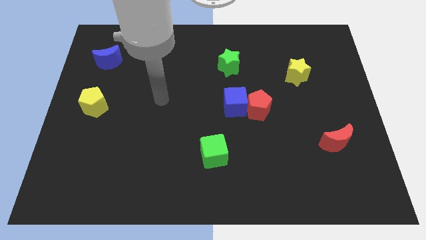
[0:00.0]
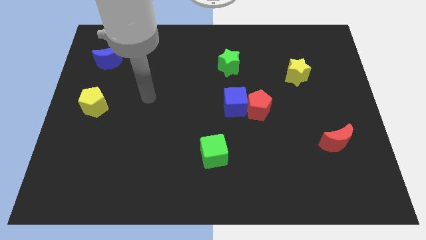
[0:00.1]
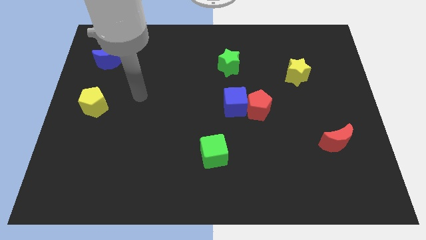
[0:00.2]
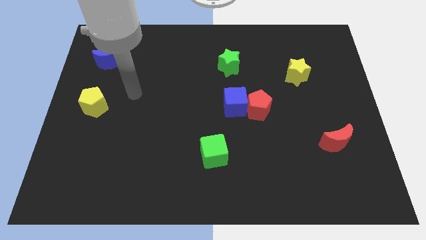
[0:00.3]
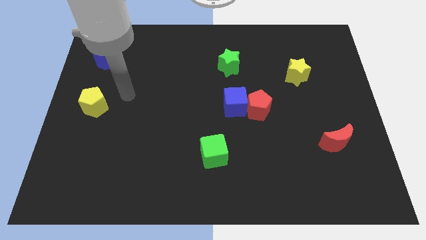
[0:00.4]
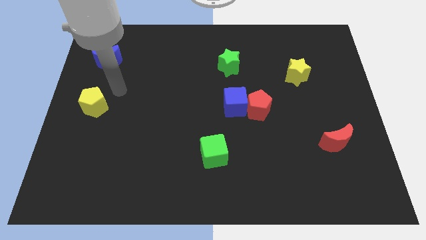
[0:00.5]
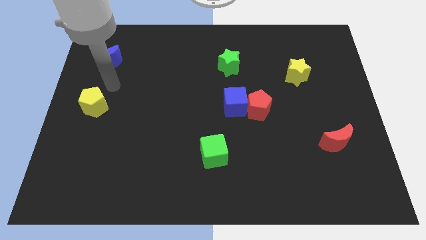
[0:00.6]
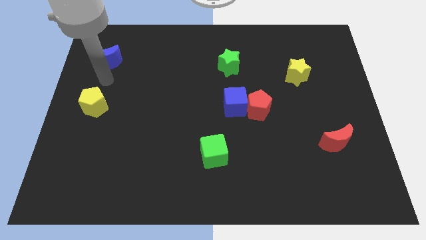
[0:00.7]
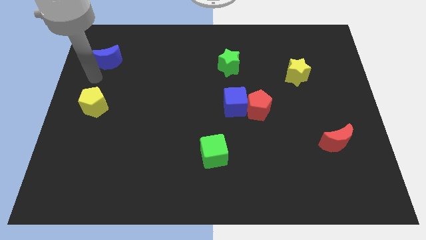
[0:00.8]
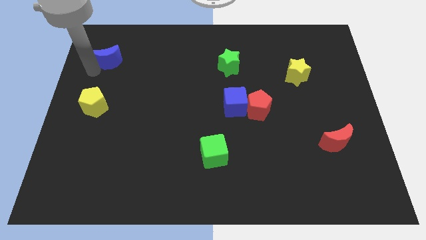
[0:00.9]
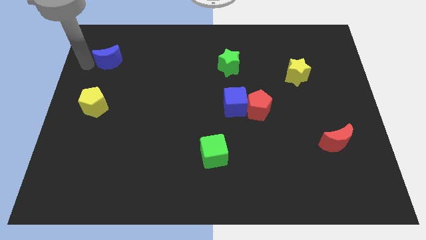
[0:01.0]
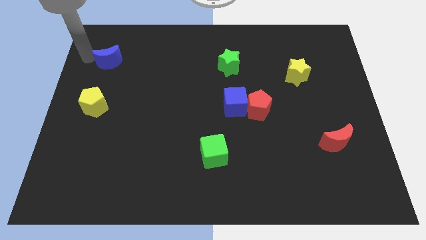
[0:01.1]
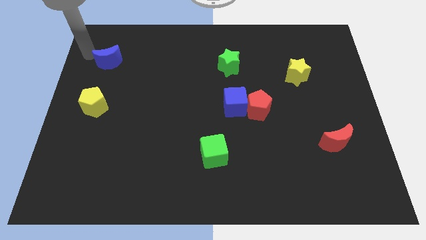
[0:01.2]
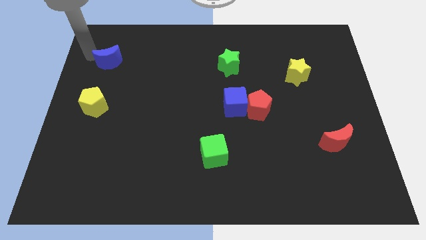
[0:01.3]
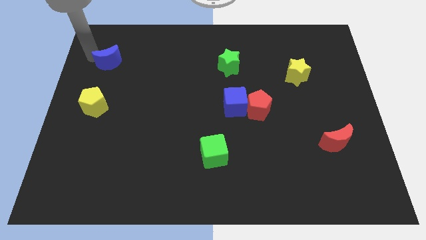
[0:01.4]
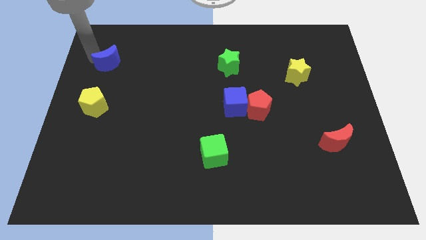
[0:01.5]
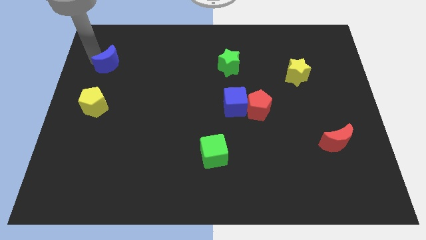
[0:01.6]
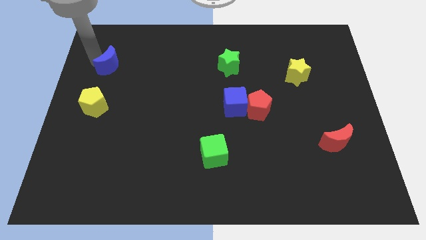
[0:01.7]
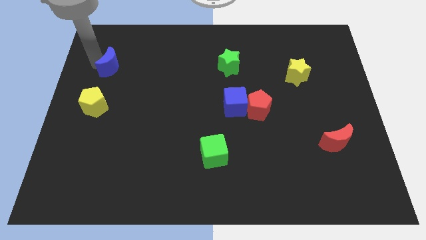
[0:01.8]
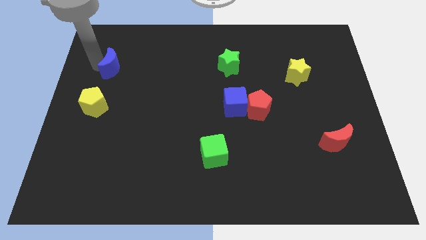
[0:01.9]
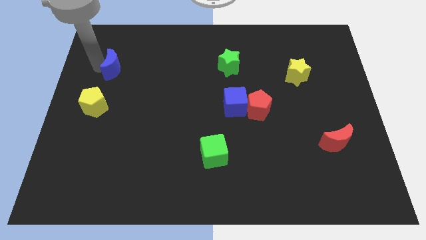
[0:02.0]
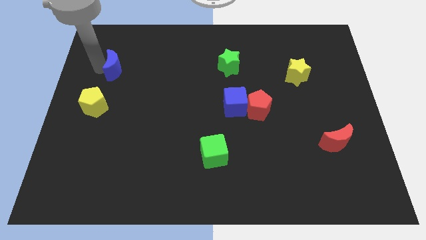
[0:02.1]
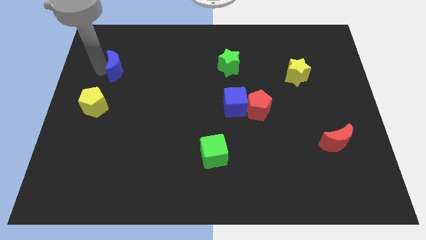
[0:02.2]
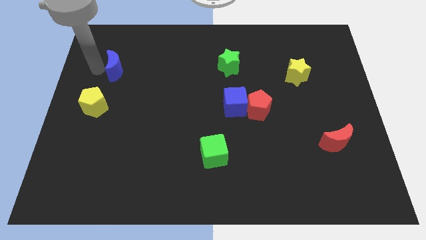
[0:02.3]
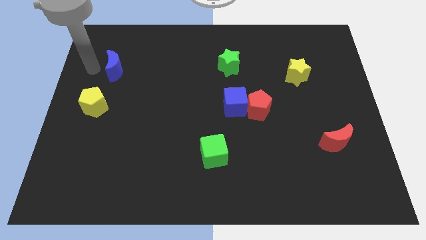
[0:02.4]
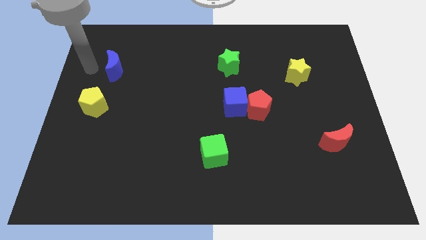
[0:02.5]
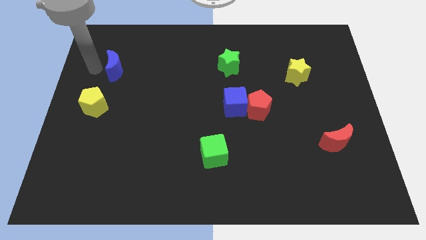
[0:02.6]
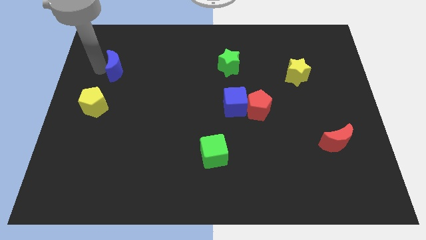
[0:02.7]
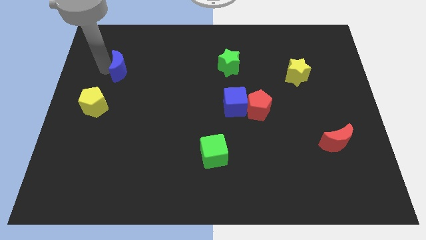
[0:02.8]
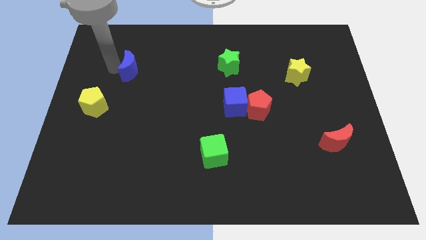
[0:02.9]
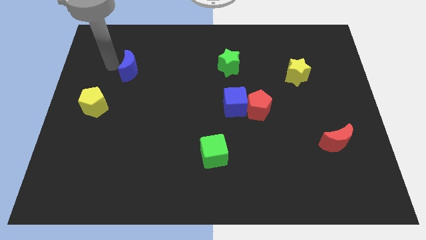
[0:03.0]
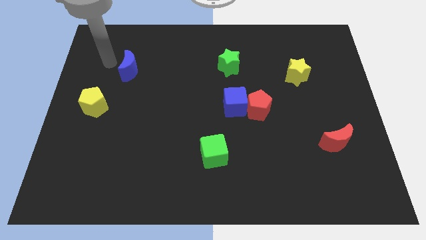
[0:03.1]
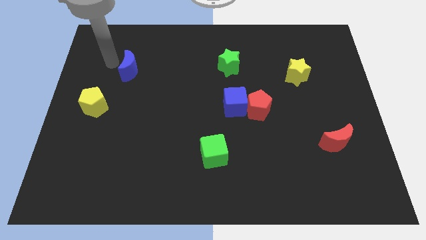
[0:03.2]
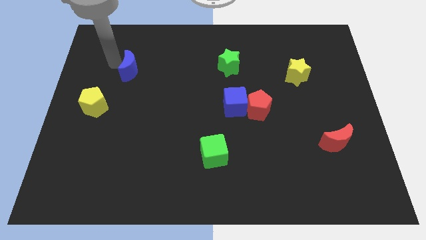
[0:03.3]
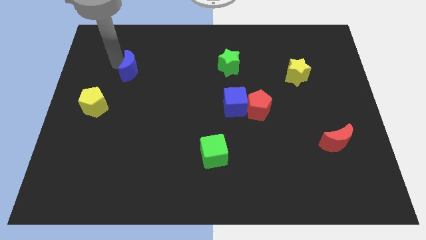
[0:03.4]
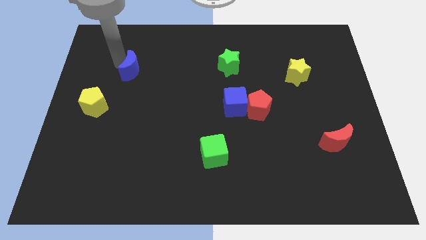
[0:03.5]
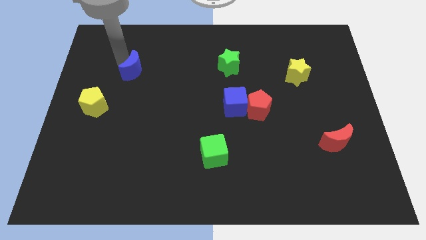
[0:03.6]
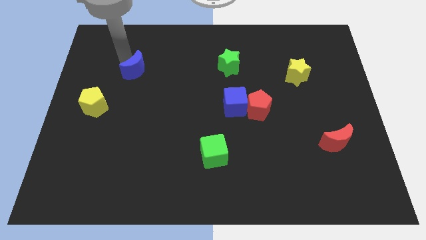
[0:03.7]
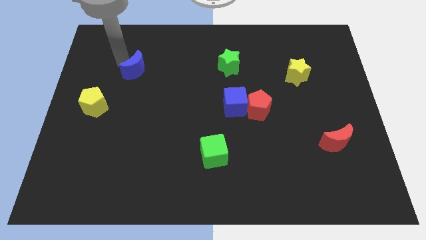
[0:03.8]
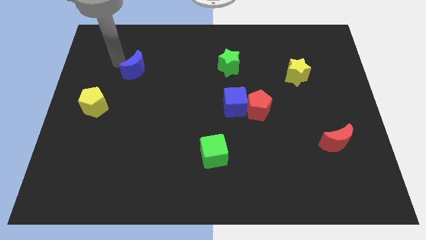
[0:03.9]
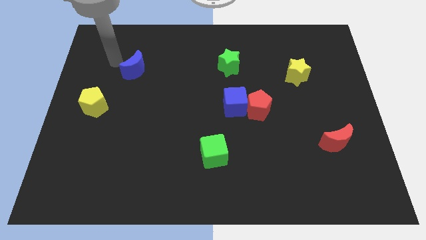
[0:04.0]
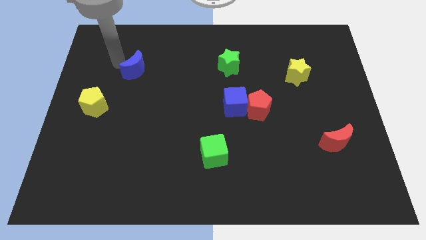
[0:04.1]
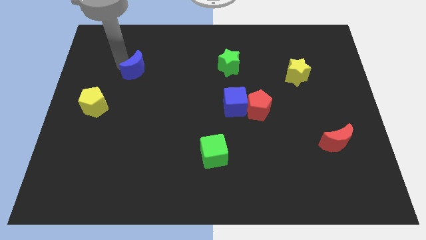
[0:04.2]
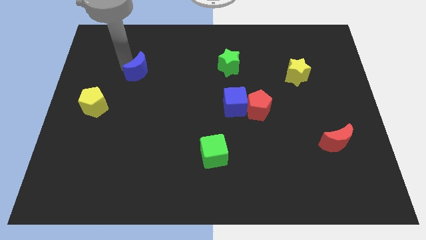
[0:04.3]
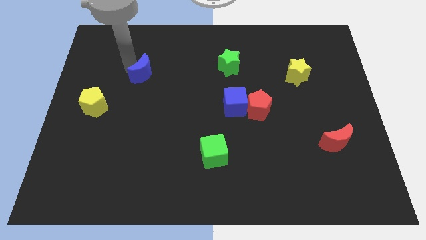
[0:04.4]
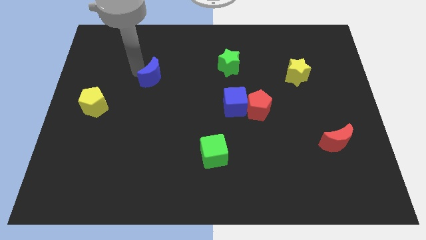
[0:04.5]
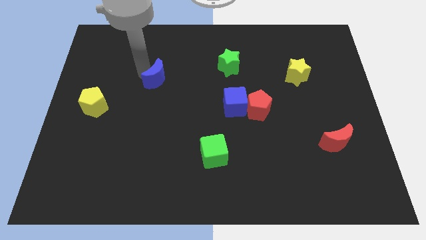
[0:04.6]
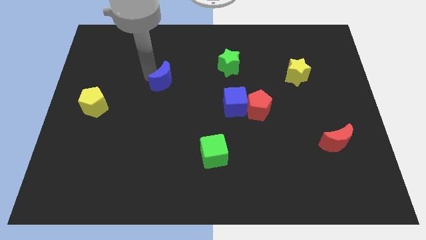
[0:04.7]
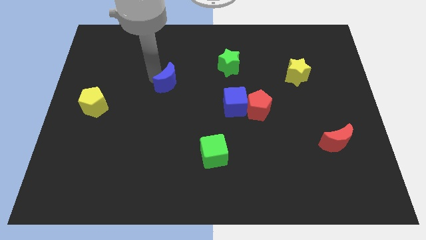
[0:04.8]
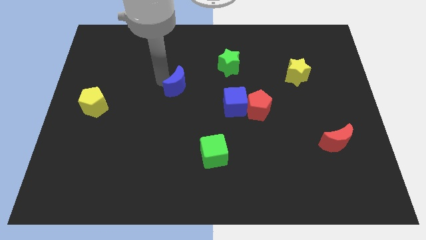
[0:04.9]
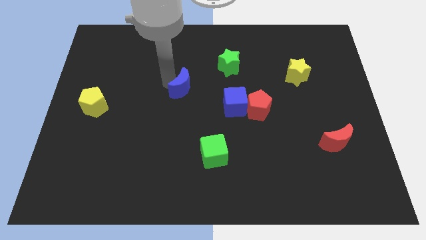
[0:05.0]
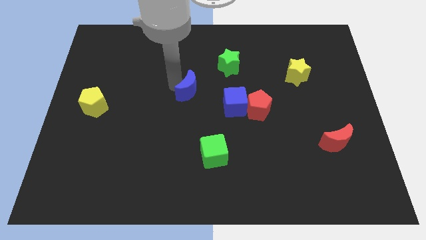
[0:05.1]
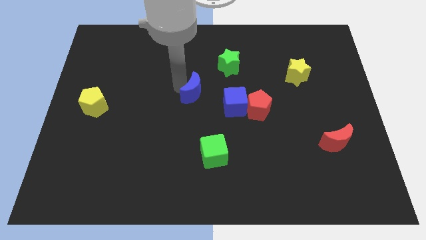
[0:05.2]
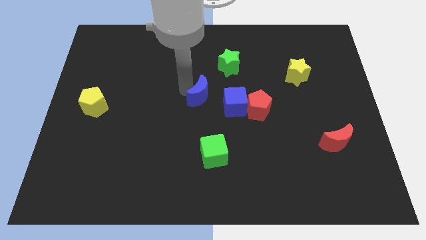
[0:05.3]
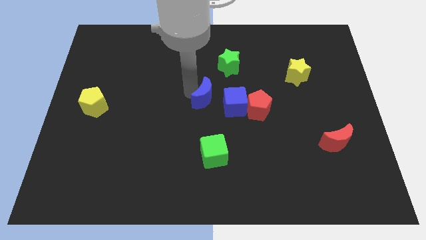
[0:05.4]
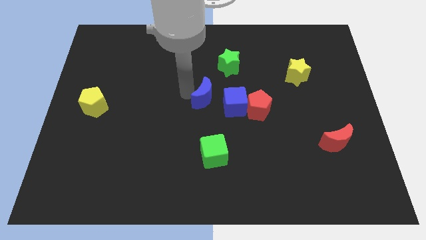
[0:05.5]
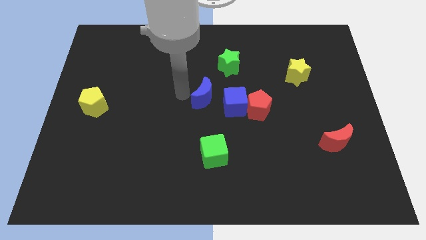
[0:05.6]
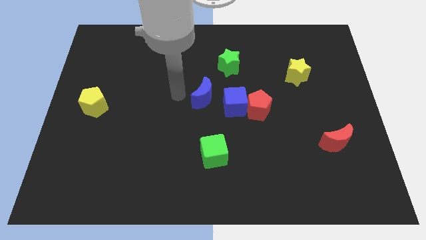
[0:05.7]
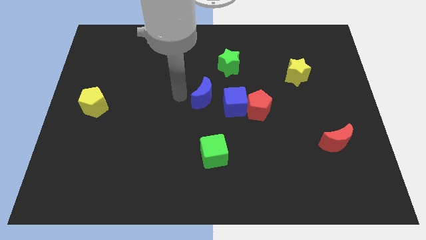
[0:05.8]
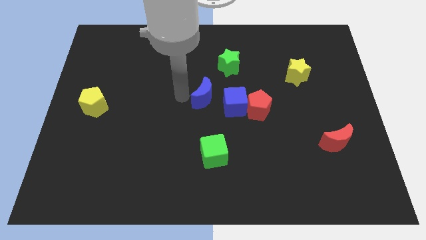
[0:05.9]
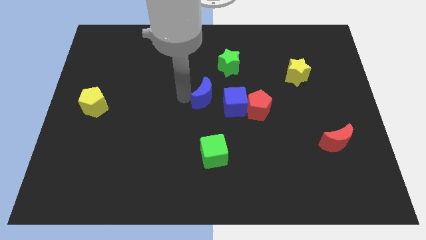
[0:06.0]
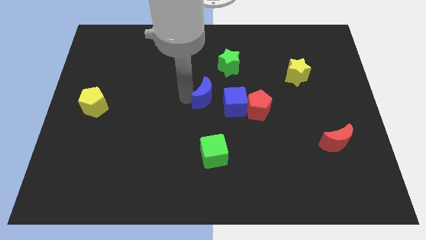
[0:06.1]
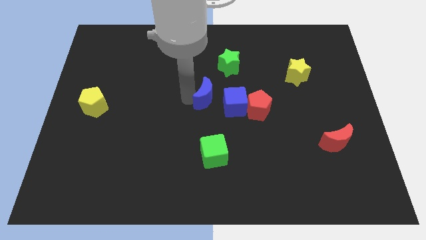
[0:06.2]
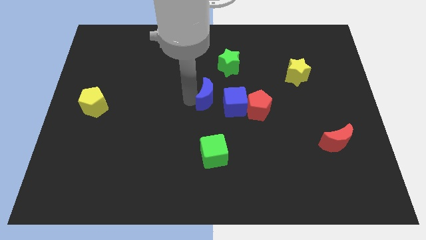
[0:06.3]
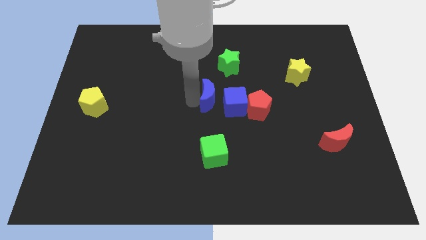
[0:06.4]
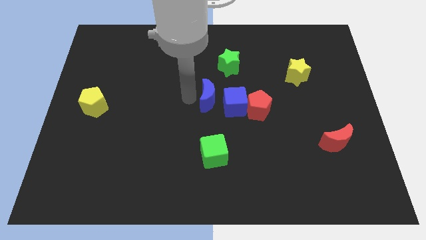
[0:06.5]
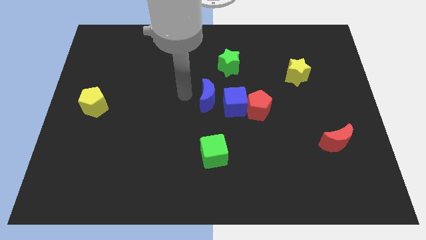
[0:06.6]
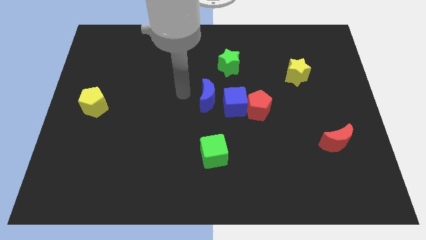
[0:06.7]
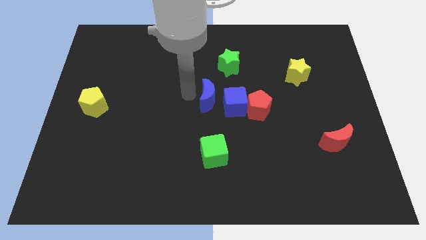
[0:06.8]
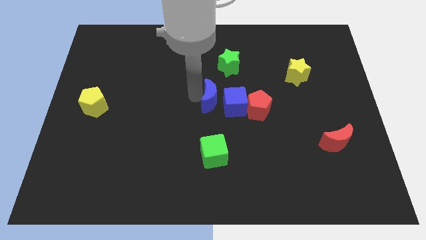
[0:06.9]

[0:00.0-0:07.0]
move the blue moon to the blue cube

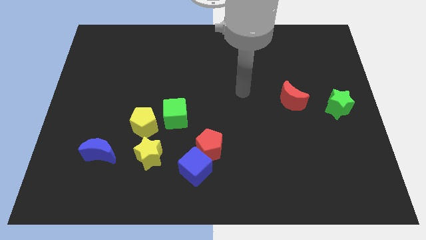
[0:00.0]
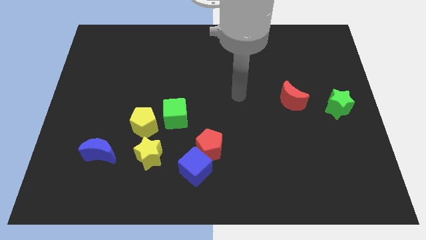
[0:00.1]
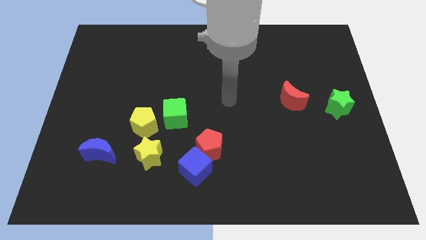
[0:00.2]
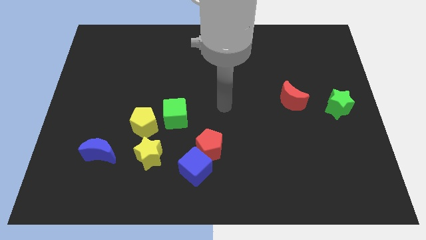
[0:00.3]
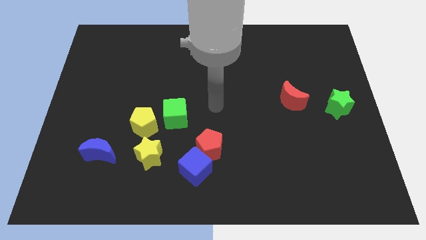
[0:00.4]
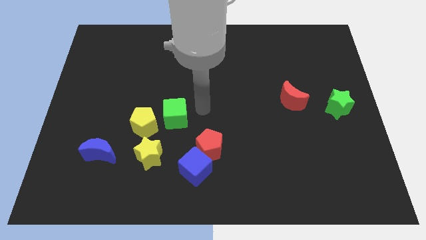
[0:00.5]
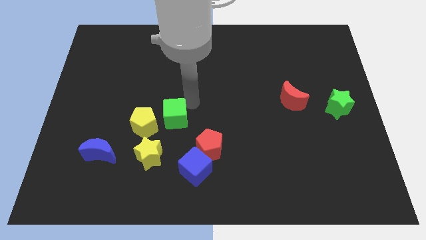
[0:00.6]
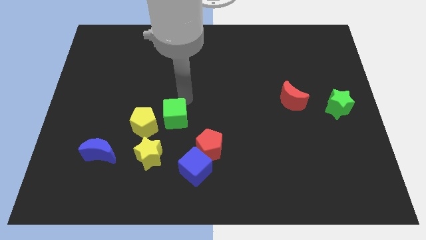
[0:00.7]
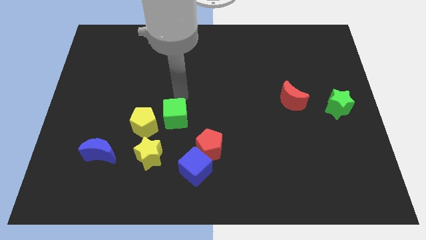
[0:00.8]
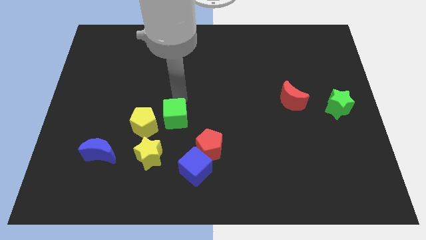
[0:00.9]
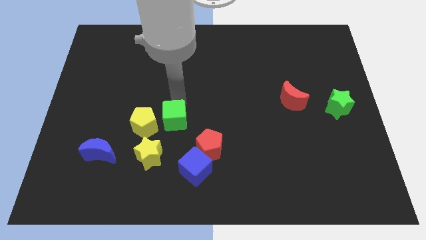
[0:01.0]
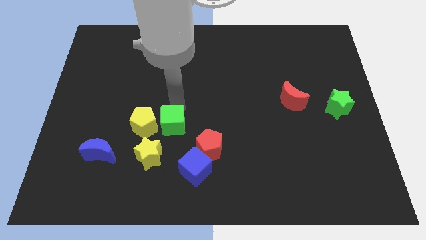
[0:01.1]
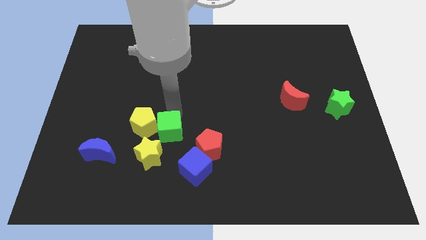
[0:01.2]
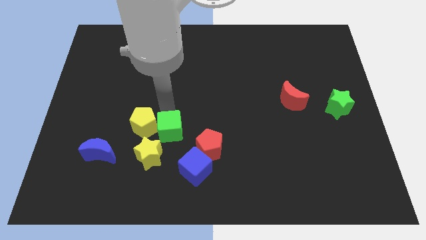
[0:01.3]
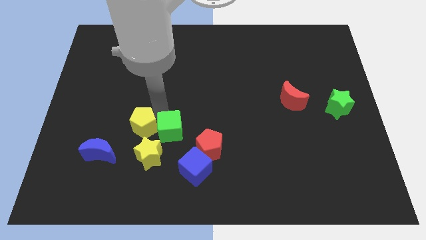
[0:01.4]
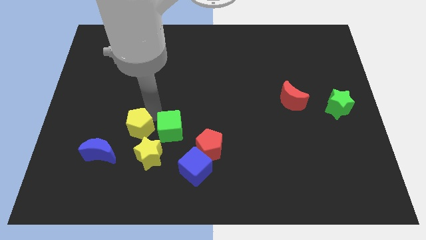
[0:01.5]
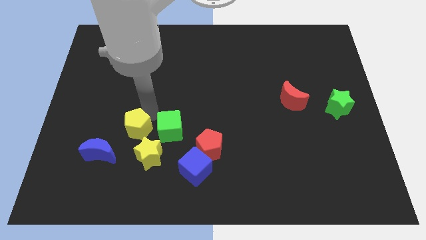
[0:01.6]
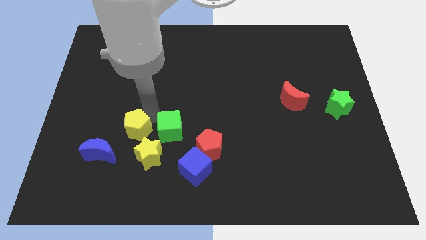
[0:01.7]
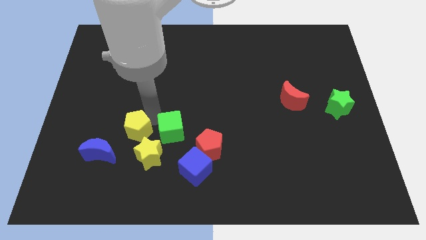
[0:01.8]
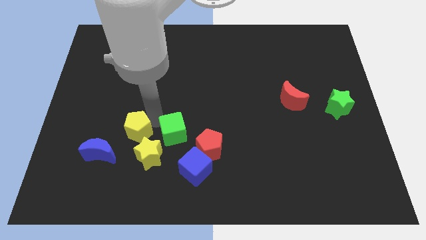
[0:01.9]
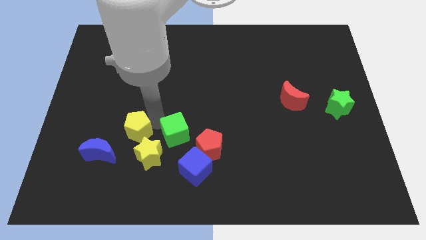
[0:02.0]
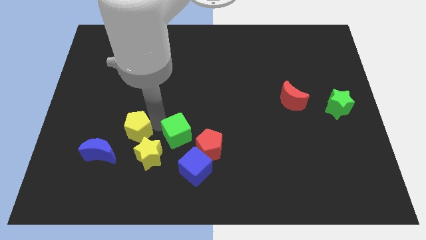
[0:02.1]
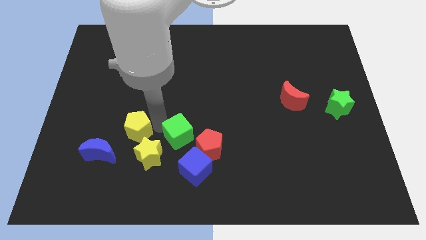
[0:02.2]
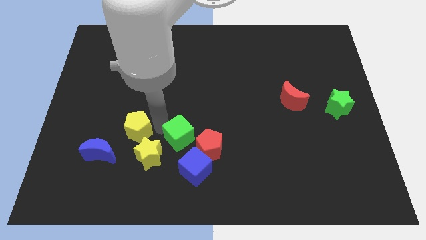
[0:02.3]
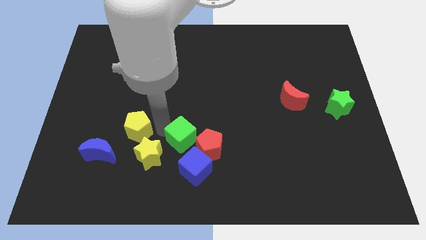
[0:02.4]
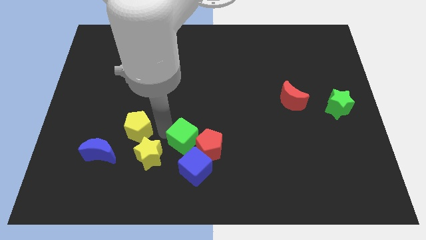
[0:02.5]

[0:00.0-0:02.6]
push the green cube next to the red pentagon
